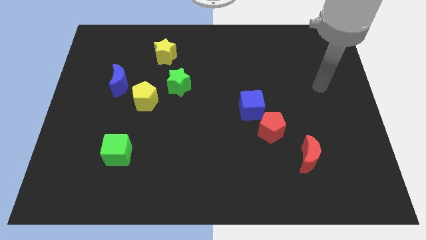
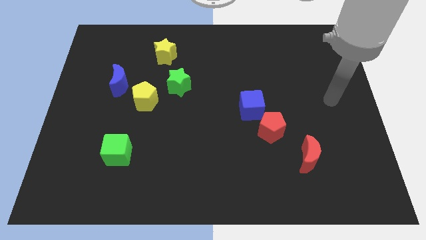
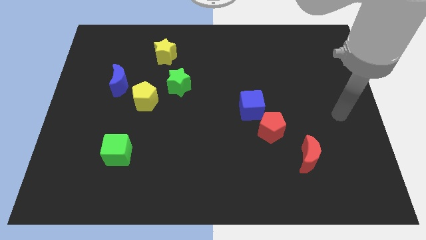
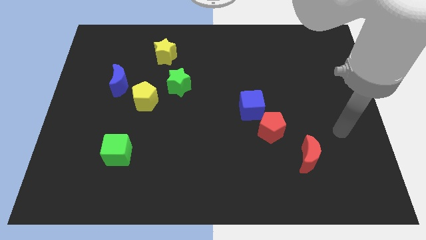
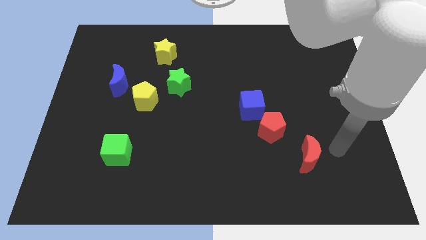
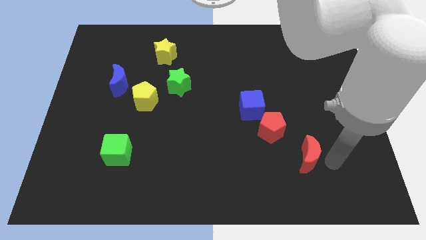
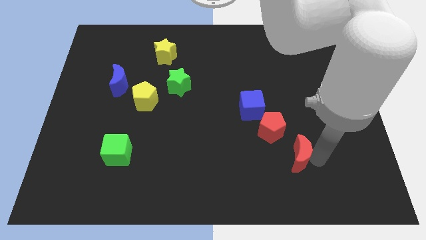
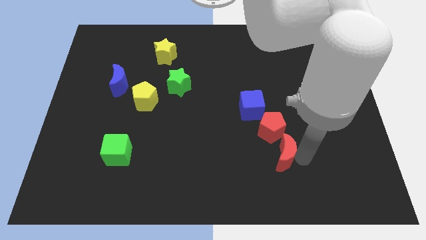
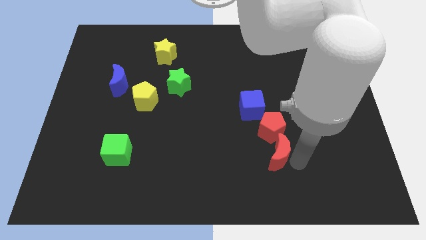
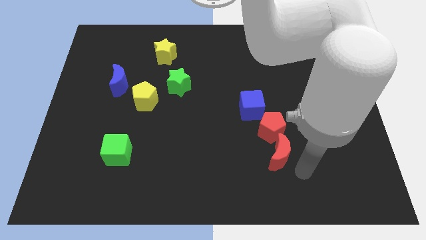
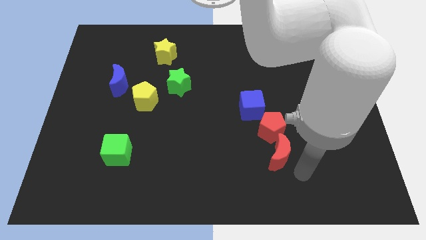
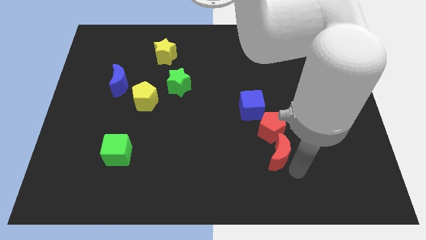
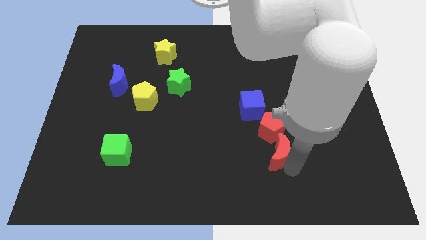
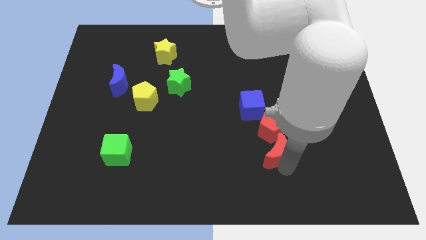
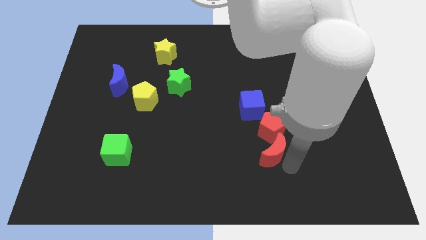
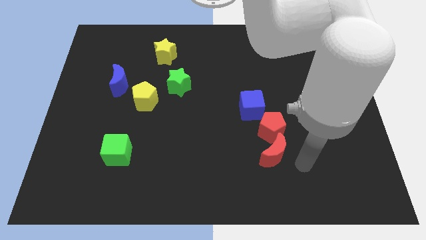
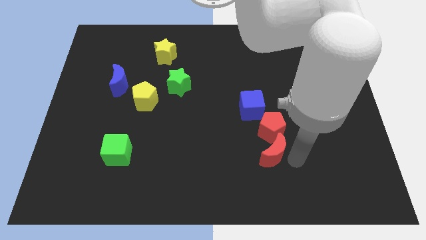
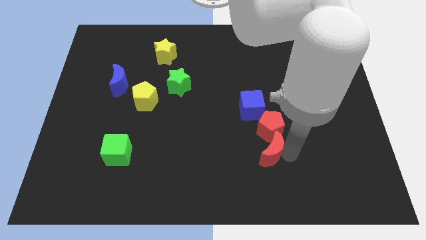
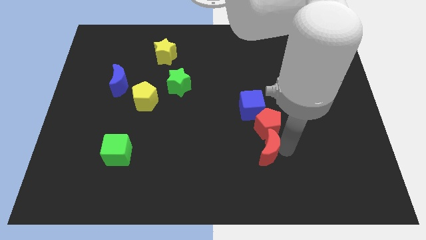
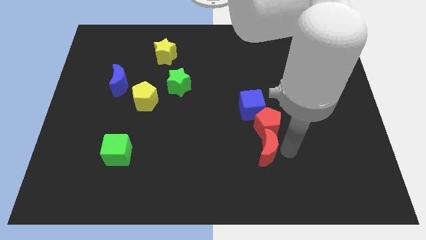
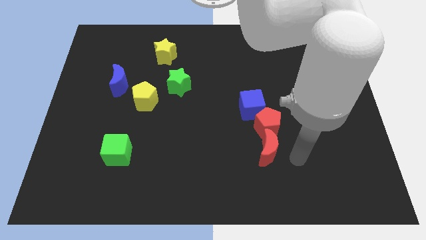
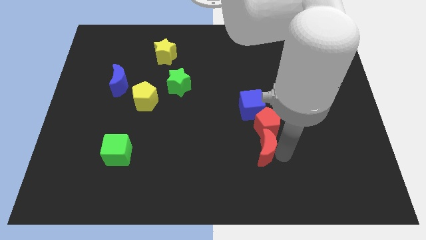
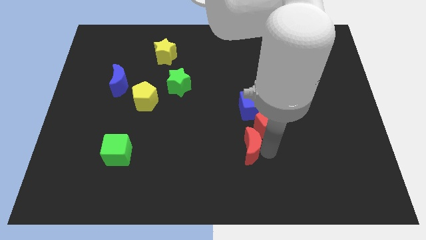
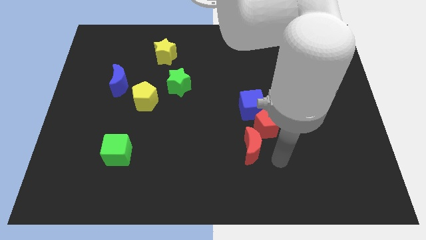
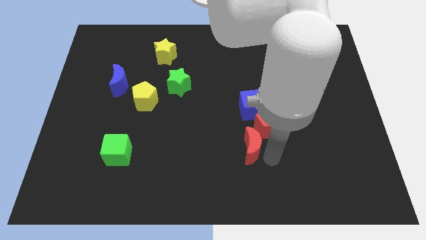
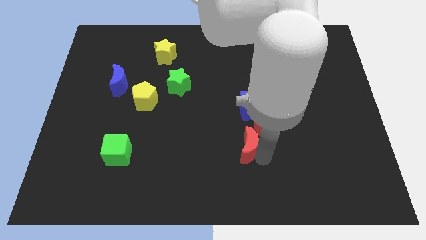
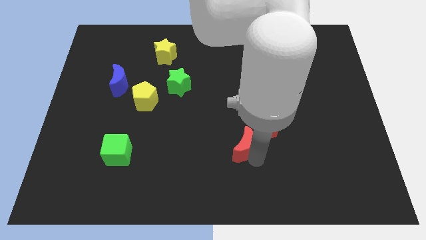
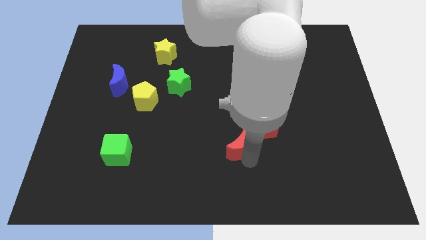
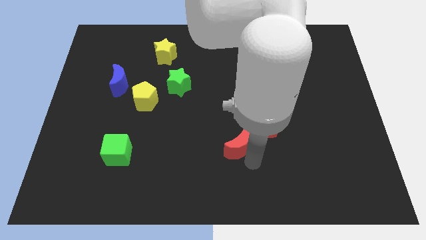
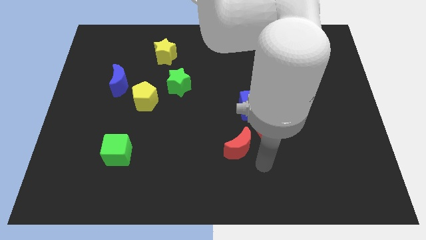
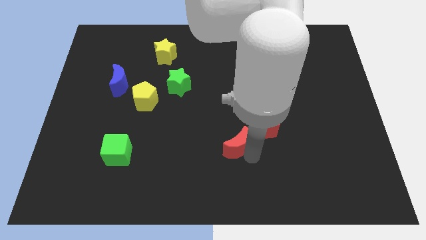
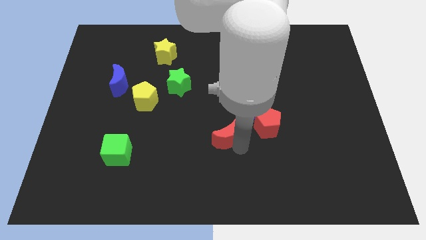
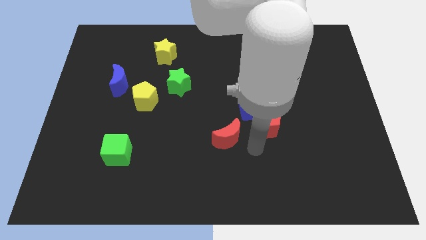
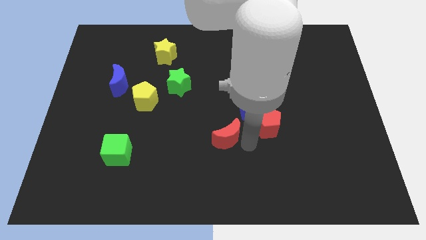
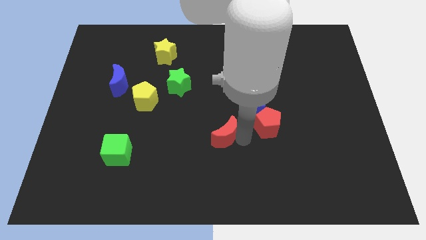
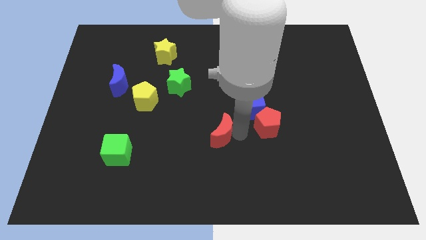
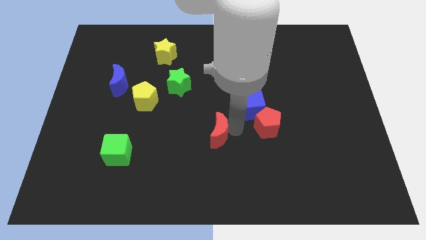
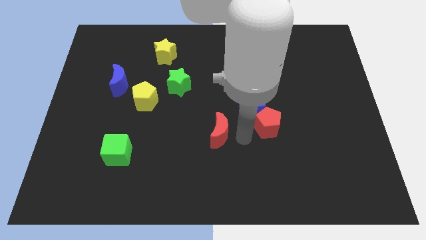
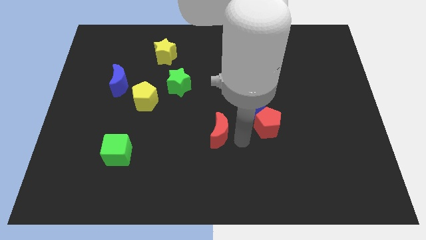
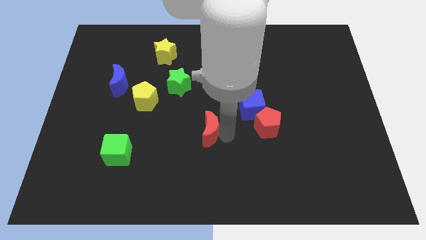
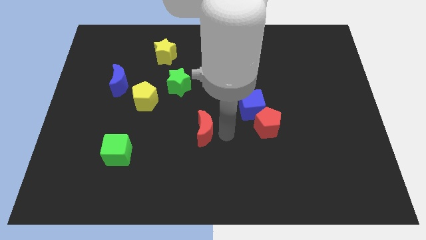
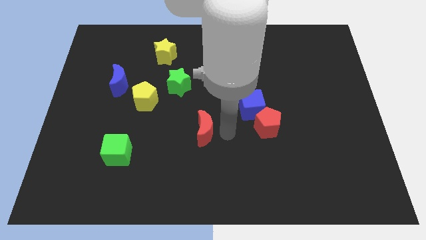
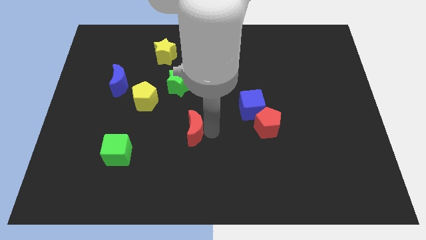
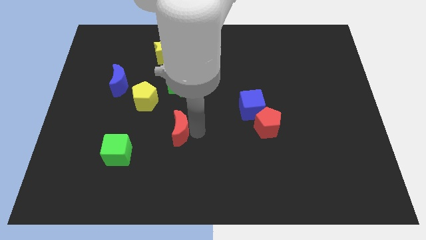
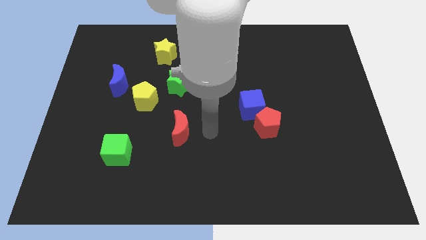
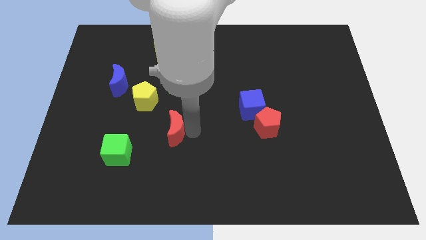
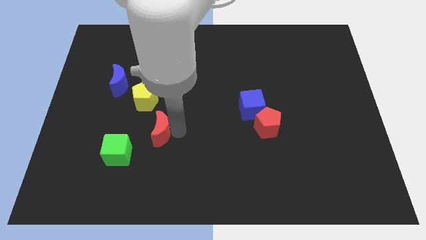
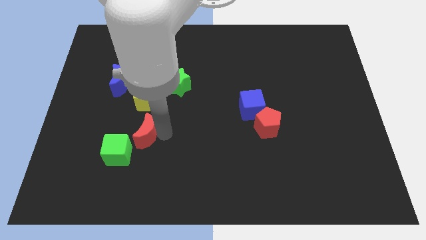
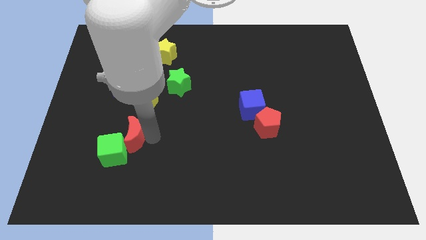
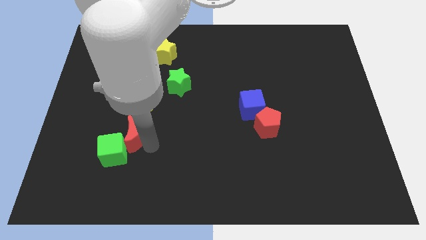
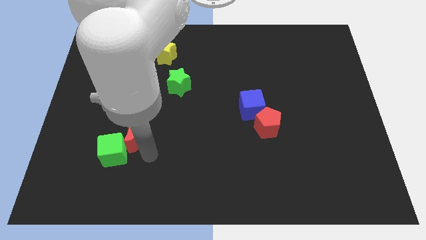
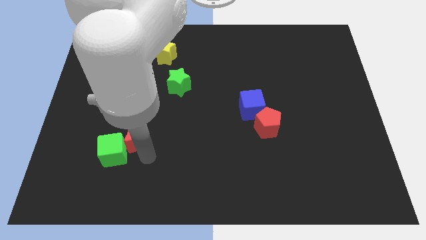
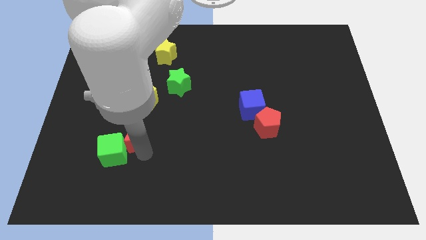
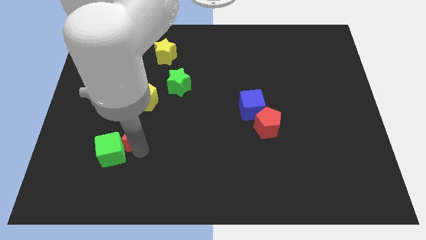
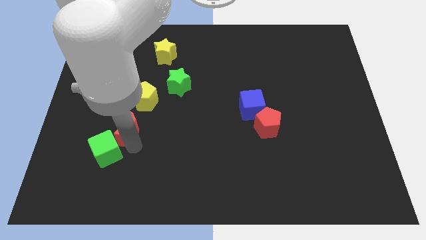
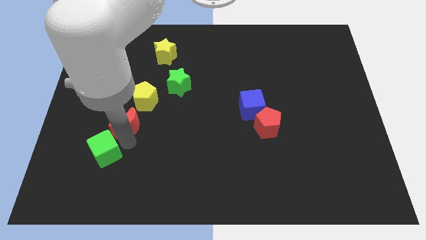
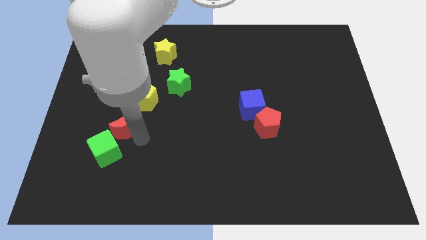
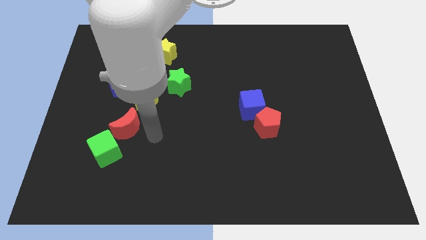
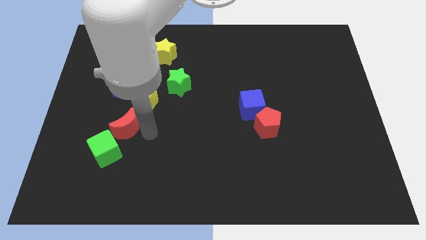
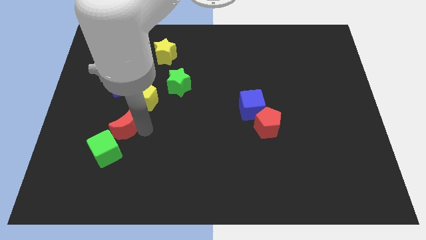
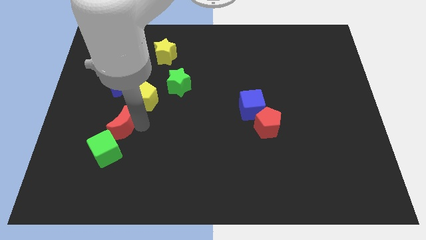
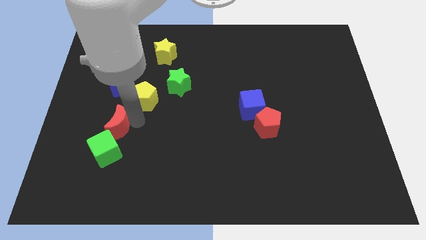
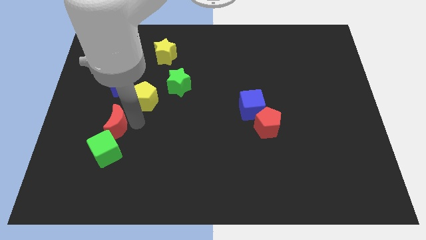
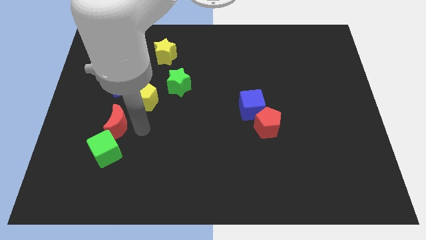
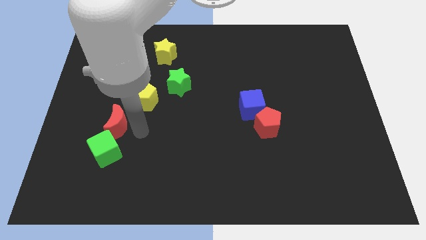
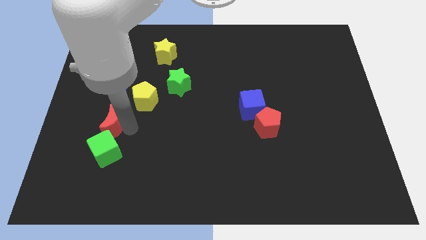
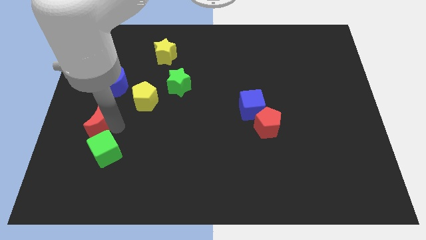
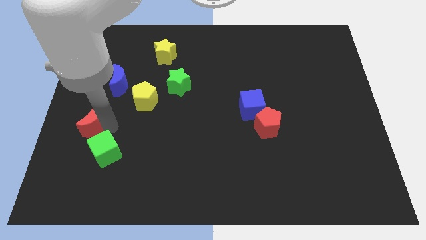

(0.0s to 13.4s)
move the red moon to the center left
